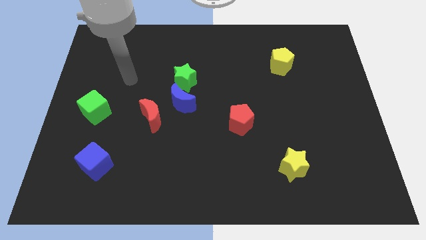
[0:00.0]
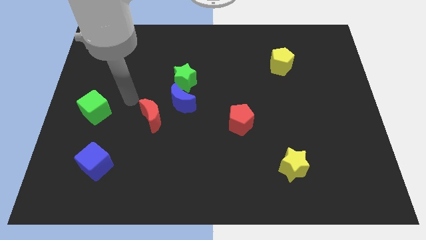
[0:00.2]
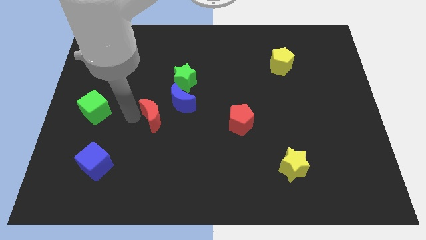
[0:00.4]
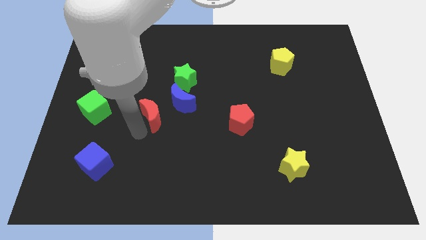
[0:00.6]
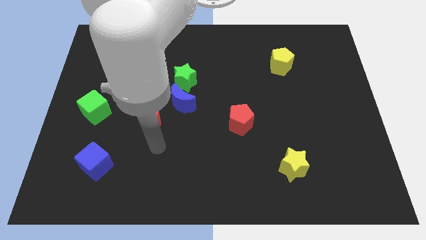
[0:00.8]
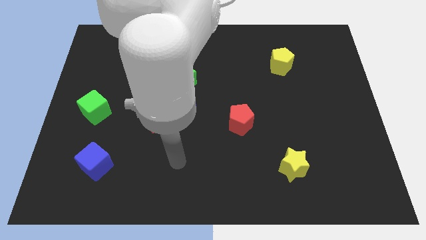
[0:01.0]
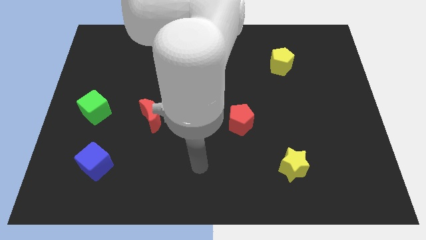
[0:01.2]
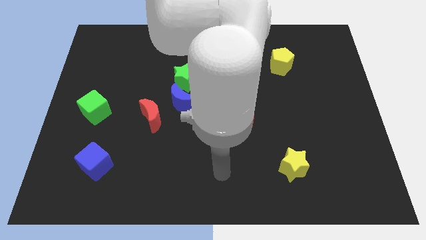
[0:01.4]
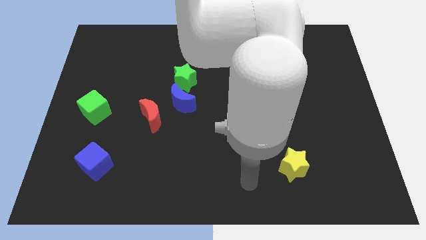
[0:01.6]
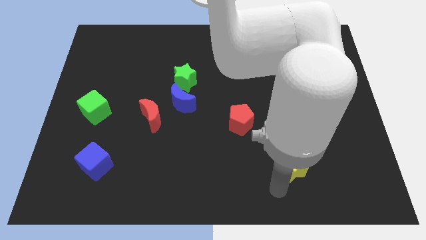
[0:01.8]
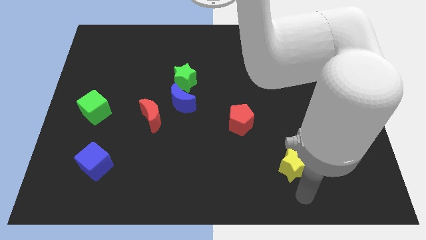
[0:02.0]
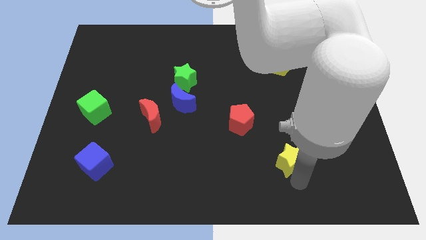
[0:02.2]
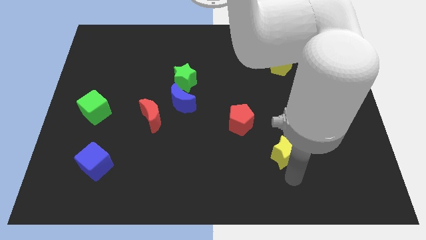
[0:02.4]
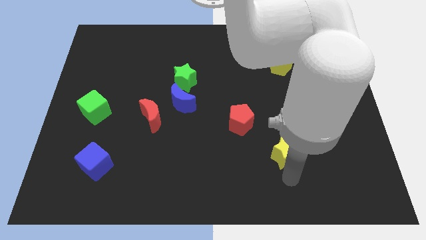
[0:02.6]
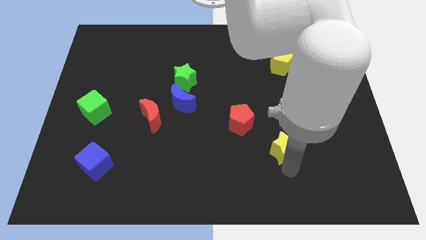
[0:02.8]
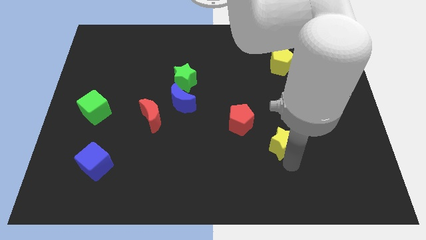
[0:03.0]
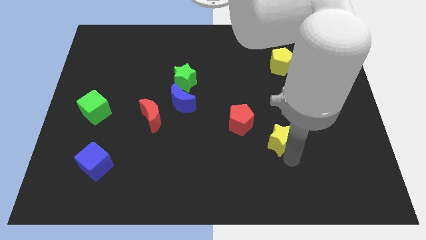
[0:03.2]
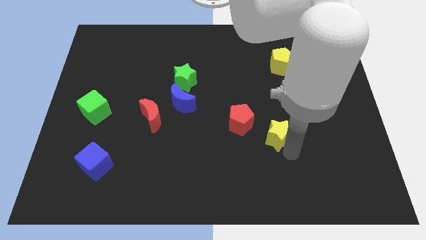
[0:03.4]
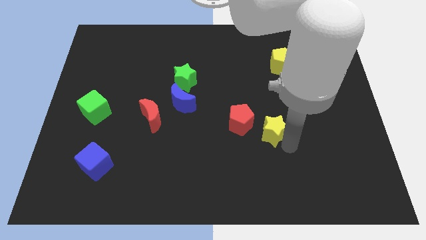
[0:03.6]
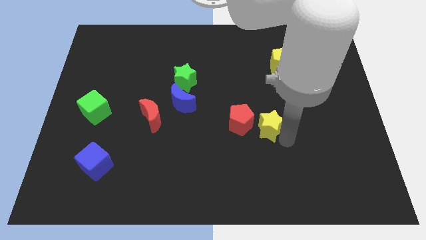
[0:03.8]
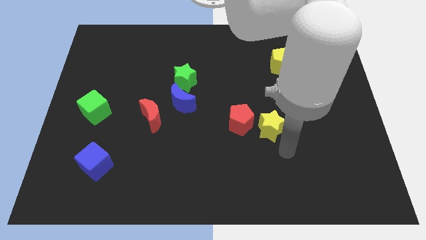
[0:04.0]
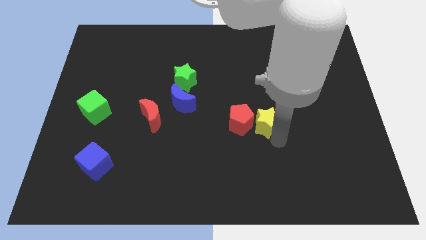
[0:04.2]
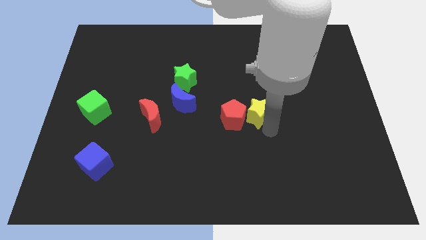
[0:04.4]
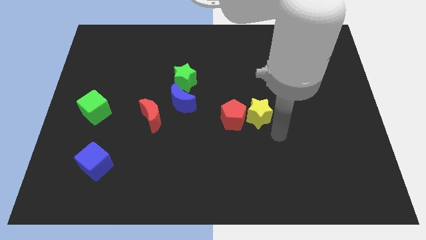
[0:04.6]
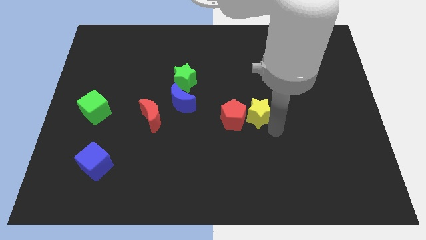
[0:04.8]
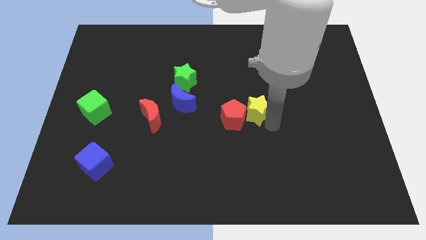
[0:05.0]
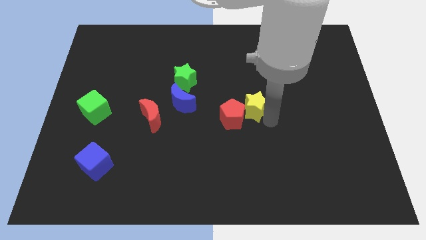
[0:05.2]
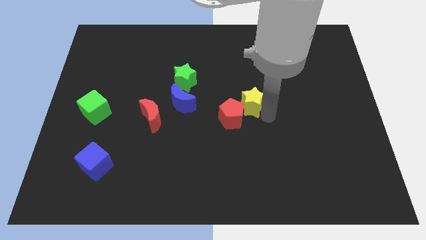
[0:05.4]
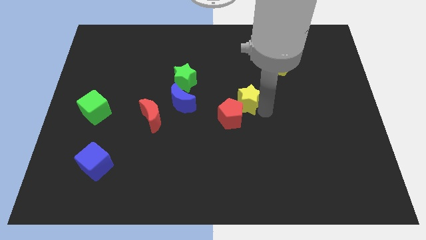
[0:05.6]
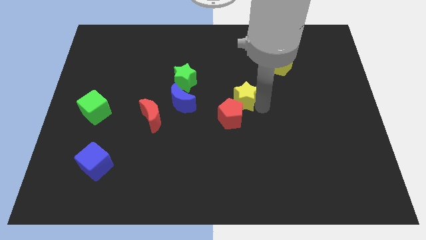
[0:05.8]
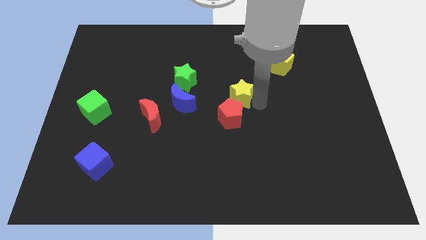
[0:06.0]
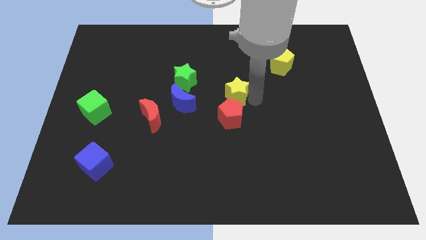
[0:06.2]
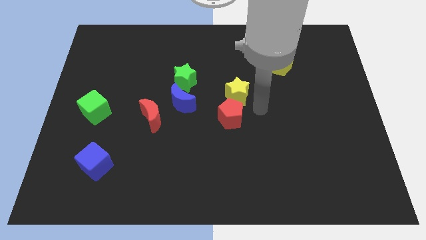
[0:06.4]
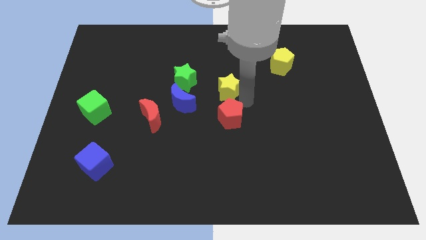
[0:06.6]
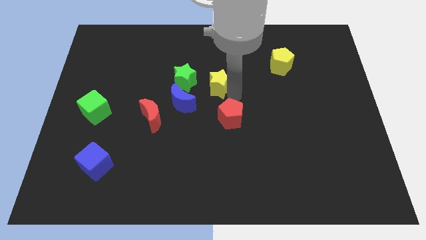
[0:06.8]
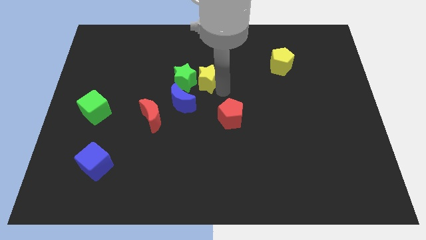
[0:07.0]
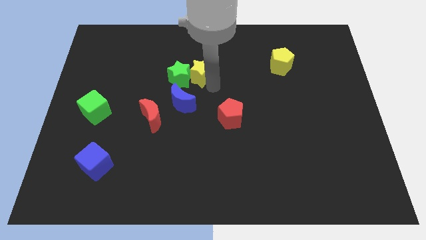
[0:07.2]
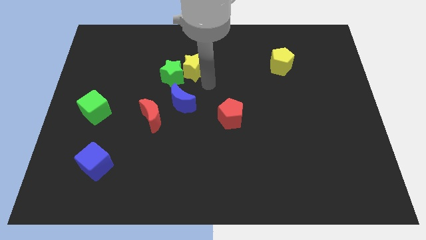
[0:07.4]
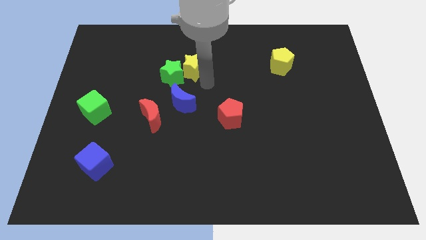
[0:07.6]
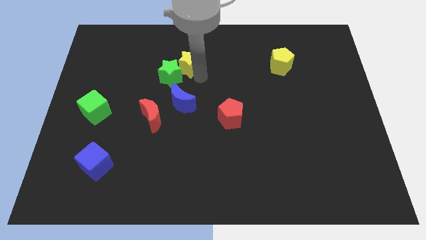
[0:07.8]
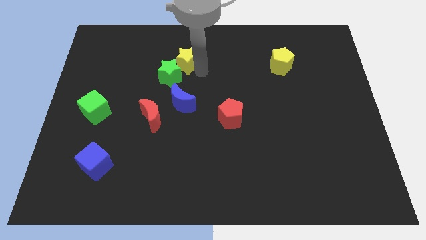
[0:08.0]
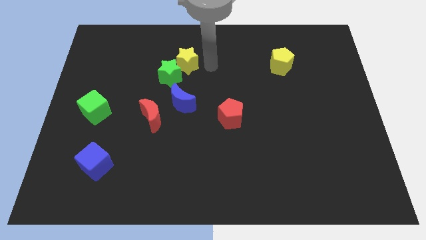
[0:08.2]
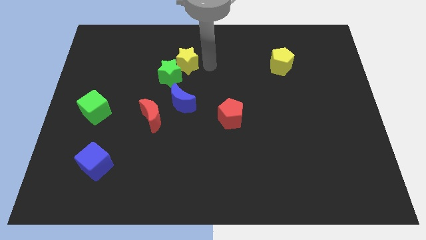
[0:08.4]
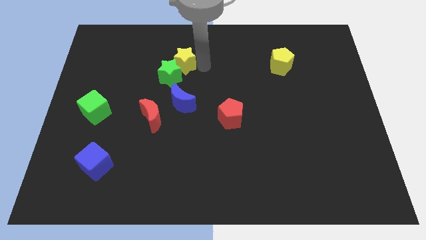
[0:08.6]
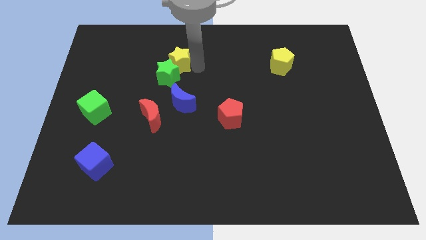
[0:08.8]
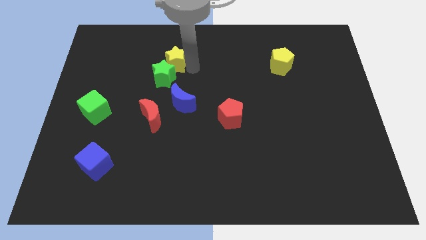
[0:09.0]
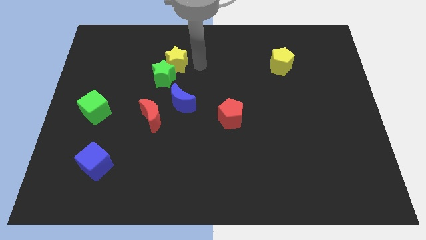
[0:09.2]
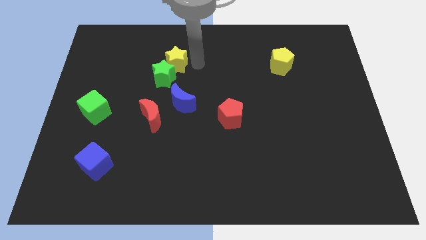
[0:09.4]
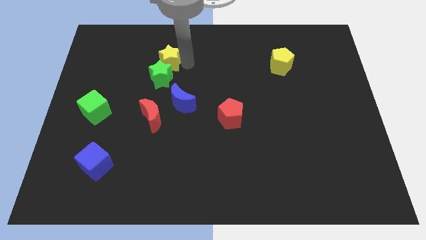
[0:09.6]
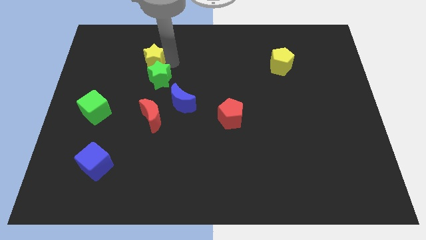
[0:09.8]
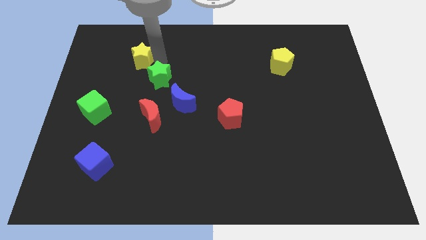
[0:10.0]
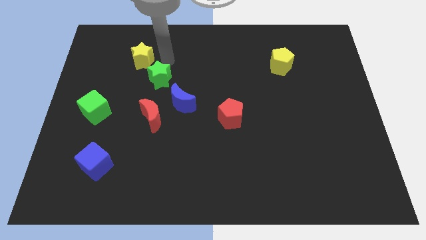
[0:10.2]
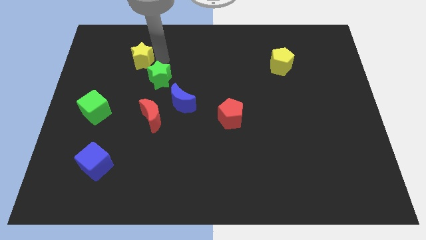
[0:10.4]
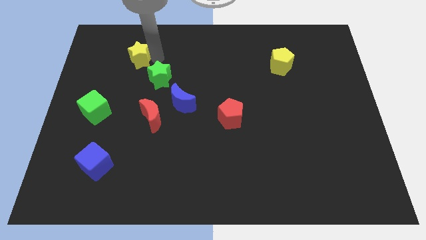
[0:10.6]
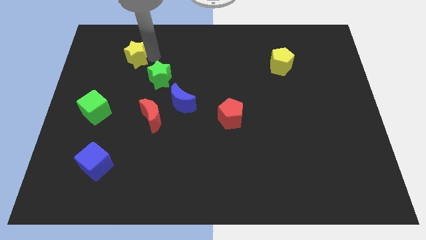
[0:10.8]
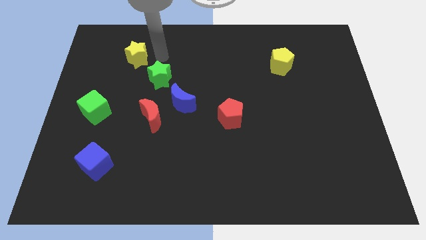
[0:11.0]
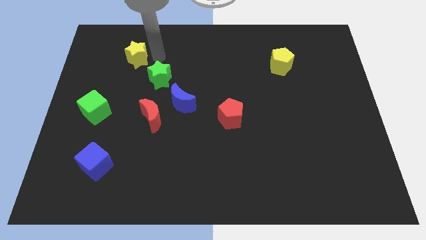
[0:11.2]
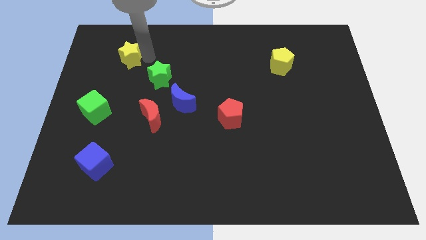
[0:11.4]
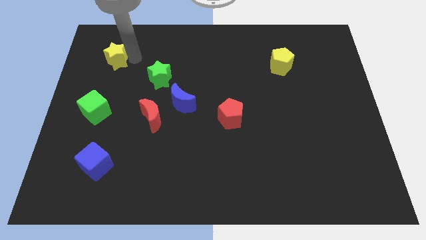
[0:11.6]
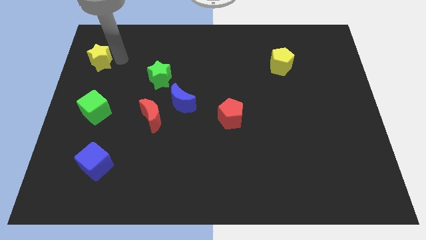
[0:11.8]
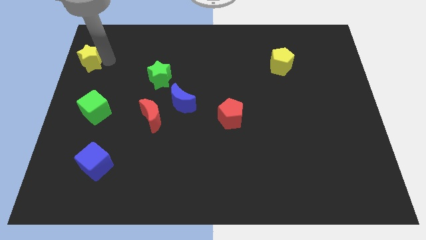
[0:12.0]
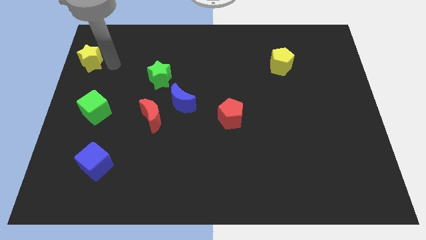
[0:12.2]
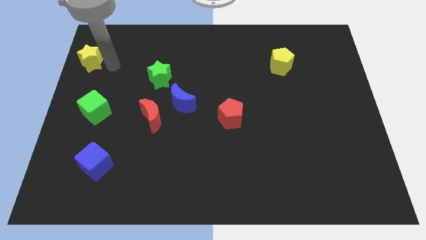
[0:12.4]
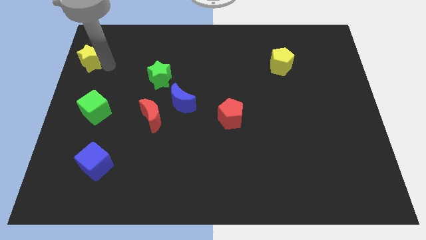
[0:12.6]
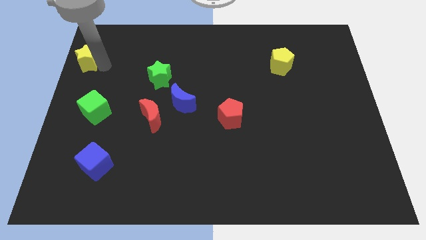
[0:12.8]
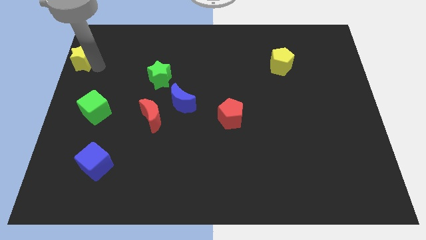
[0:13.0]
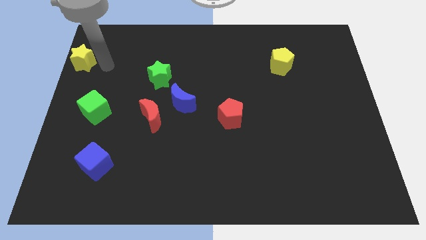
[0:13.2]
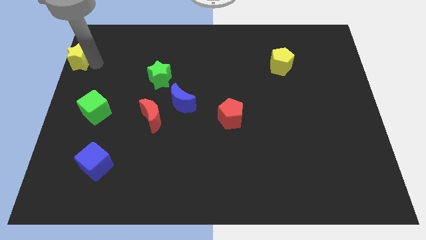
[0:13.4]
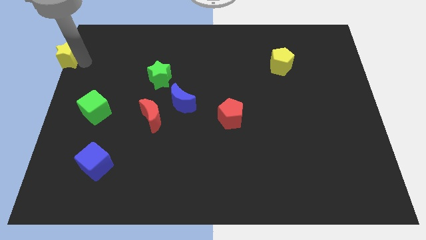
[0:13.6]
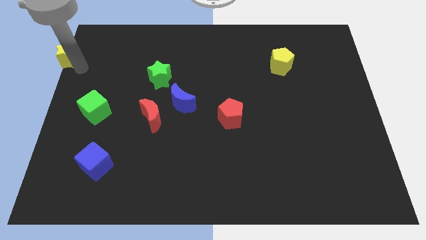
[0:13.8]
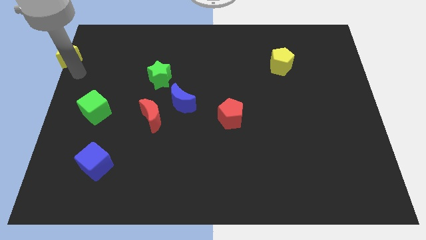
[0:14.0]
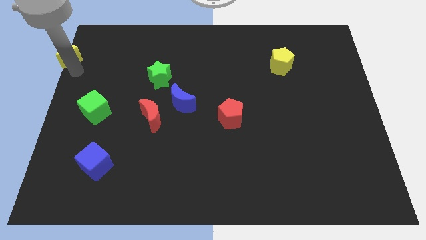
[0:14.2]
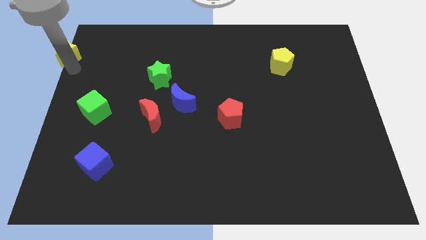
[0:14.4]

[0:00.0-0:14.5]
slide the yellow star to the top left of the board
